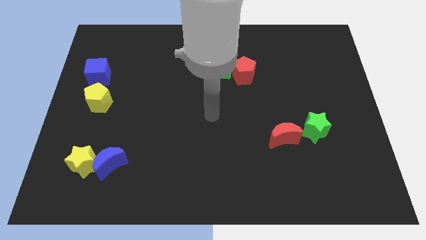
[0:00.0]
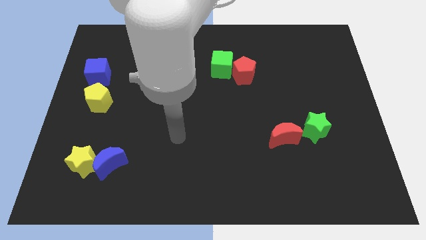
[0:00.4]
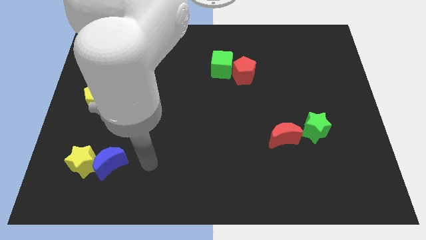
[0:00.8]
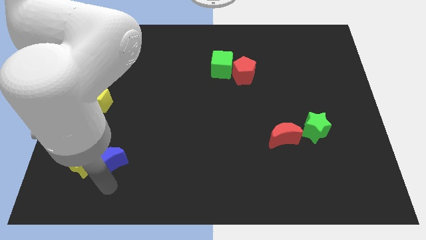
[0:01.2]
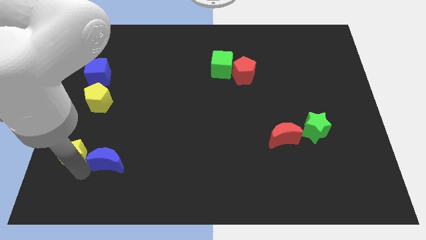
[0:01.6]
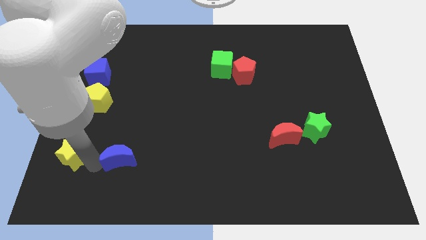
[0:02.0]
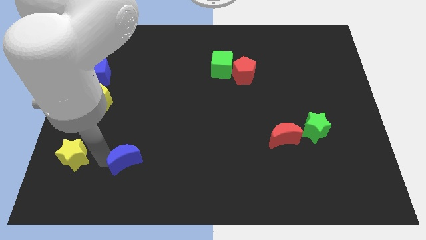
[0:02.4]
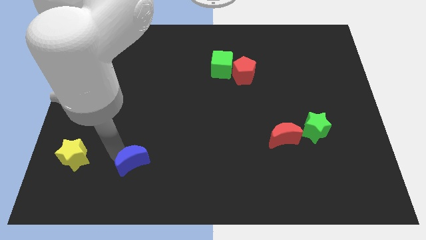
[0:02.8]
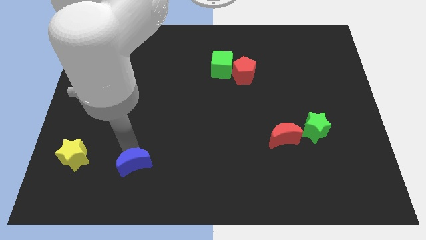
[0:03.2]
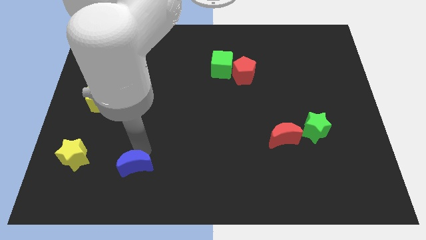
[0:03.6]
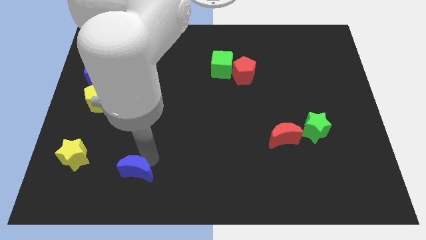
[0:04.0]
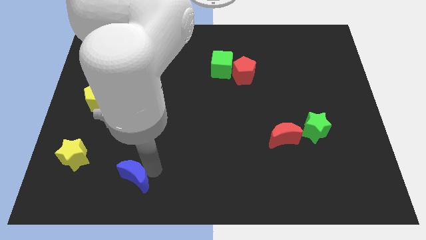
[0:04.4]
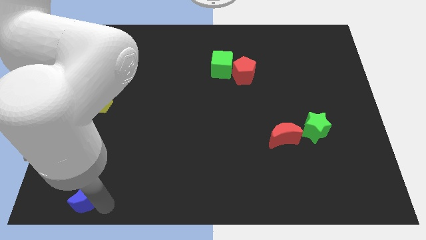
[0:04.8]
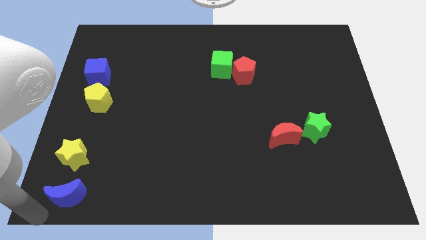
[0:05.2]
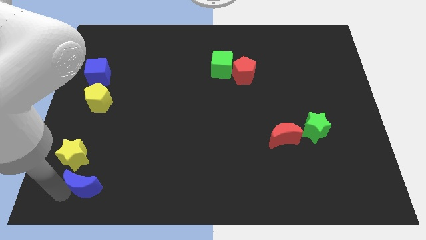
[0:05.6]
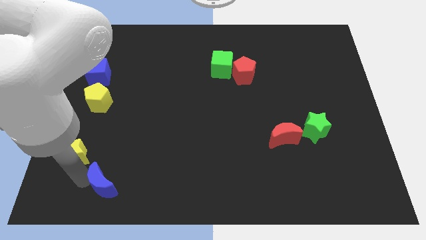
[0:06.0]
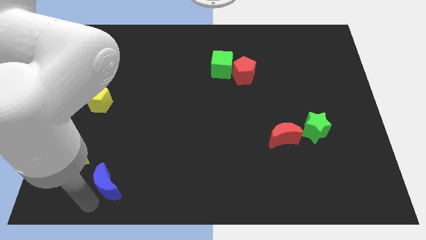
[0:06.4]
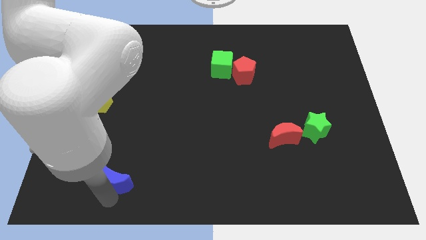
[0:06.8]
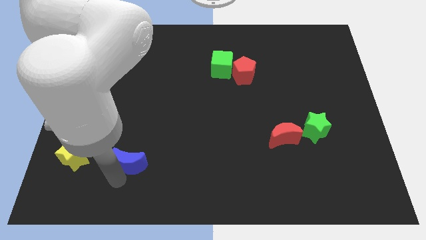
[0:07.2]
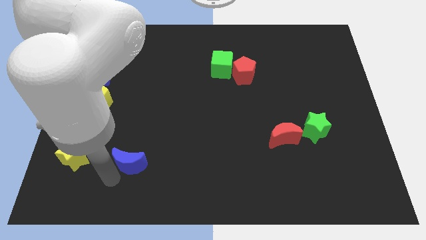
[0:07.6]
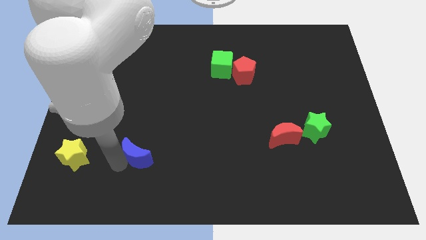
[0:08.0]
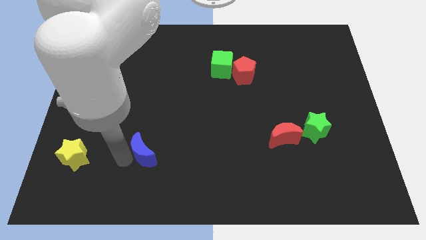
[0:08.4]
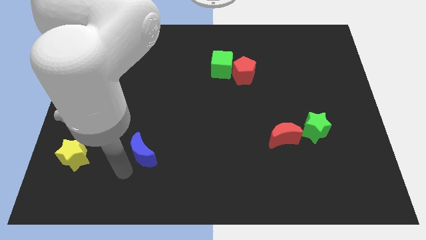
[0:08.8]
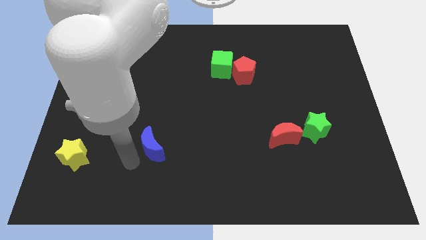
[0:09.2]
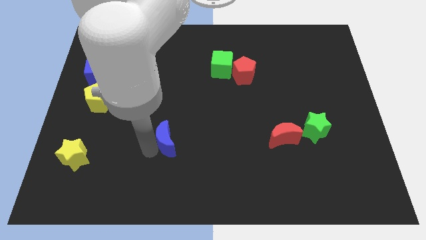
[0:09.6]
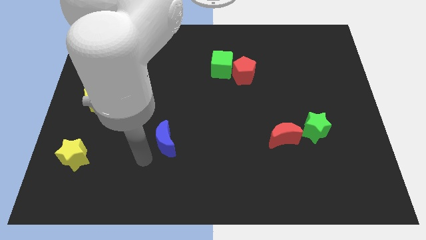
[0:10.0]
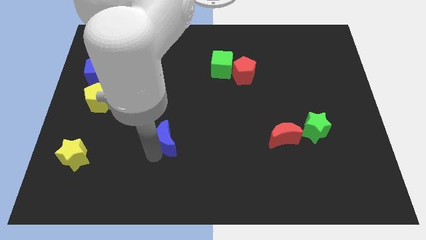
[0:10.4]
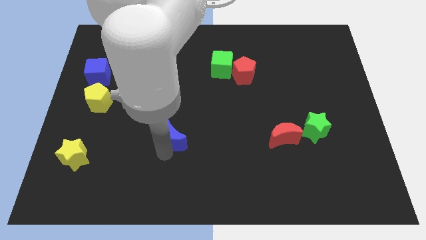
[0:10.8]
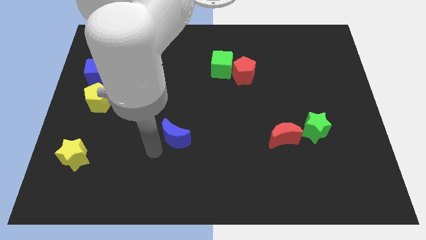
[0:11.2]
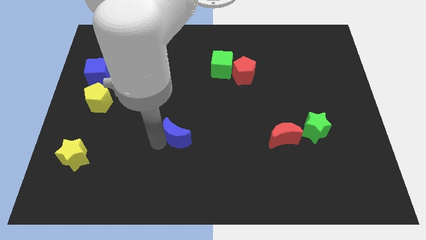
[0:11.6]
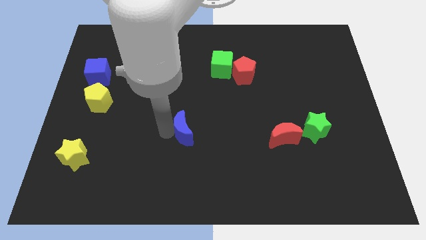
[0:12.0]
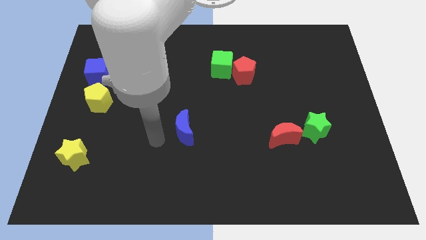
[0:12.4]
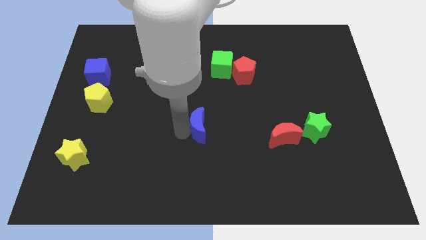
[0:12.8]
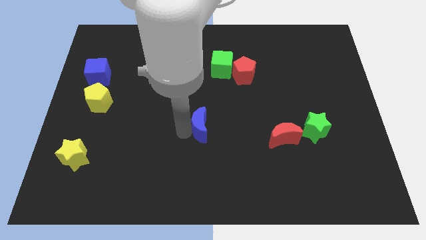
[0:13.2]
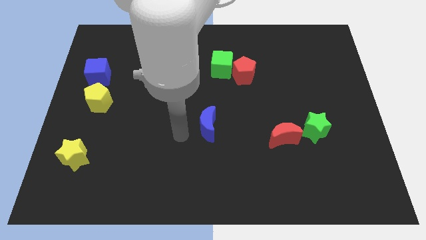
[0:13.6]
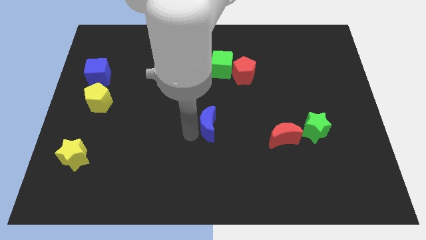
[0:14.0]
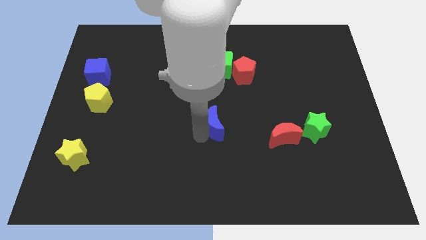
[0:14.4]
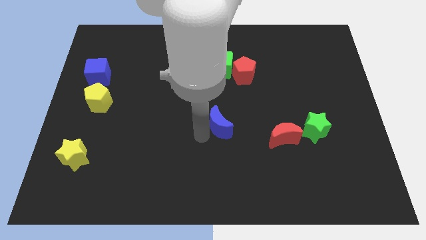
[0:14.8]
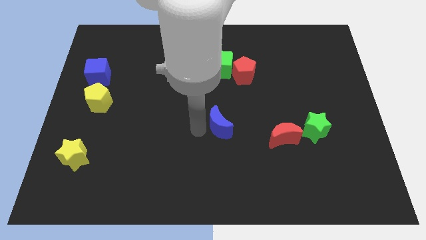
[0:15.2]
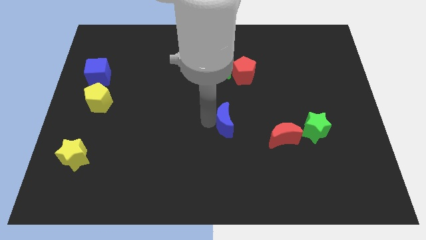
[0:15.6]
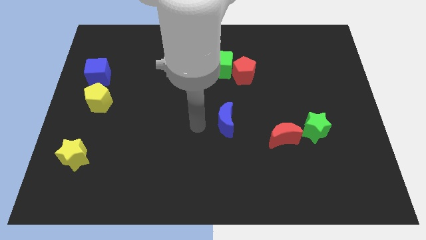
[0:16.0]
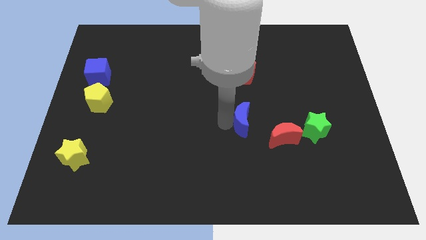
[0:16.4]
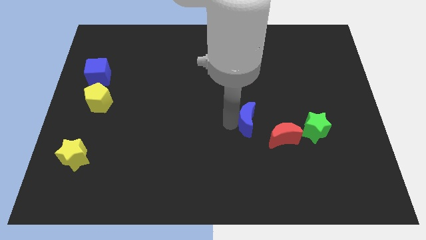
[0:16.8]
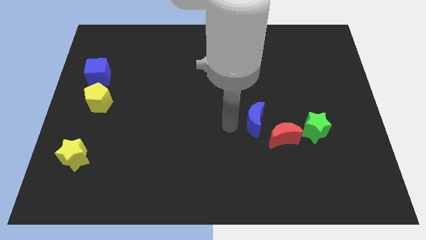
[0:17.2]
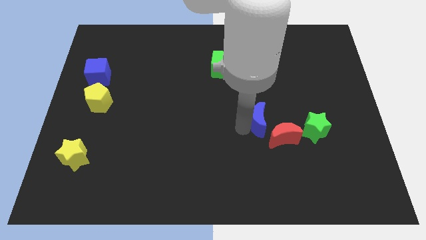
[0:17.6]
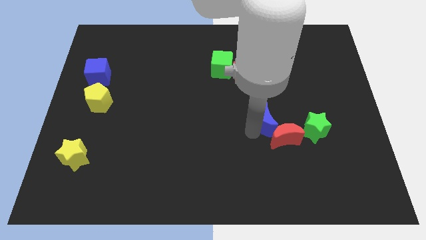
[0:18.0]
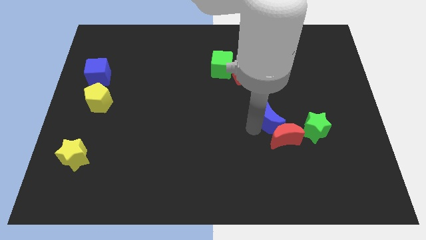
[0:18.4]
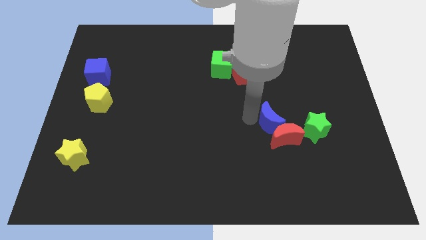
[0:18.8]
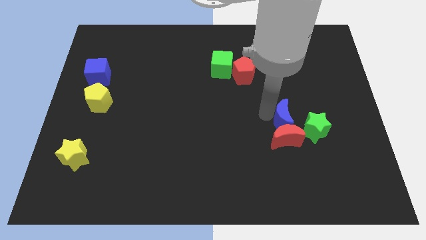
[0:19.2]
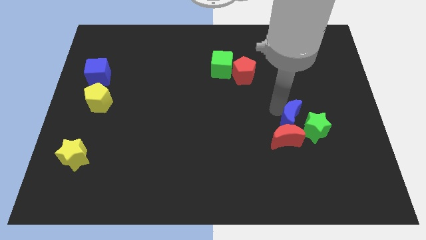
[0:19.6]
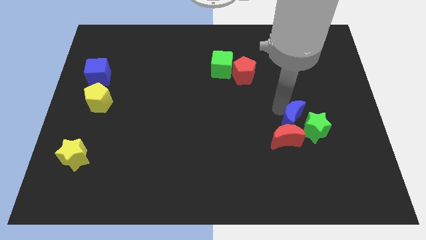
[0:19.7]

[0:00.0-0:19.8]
move the blue moon to the green star

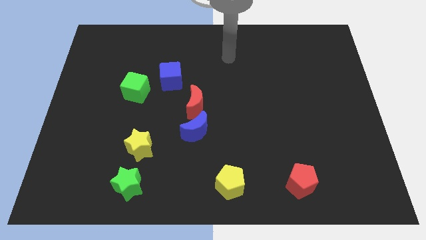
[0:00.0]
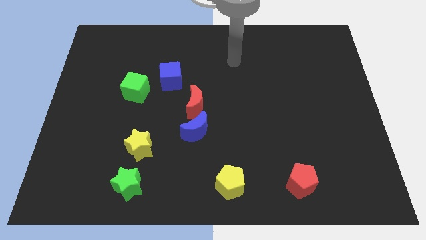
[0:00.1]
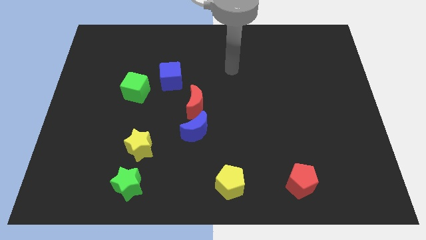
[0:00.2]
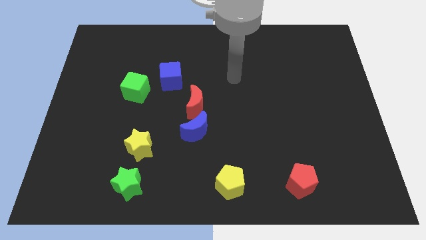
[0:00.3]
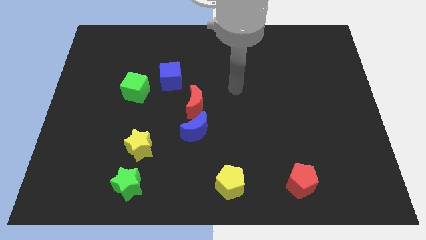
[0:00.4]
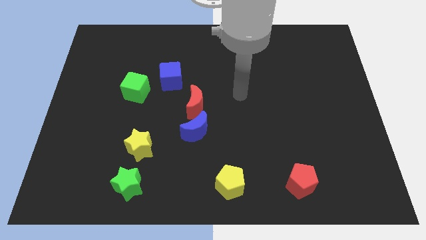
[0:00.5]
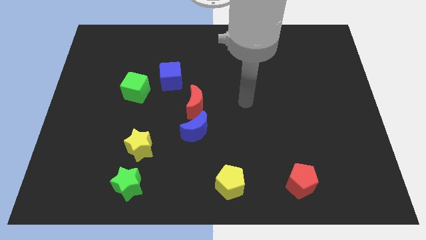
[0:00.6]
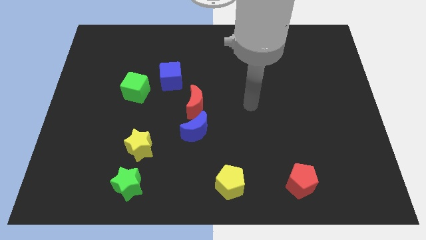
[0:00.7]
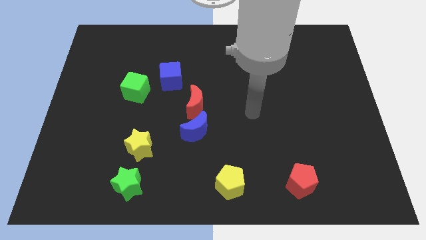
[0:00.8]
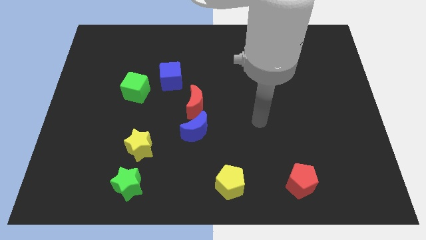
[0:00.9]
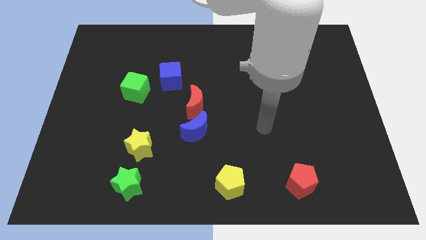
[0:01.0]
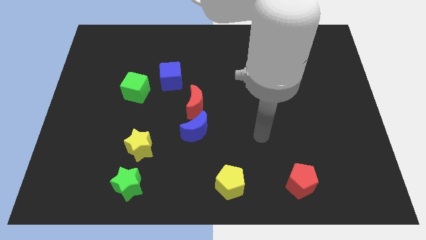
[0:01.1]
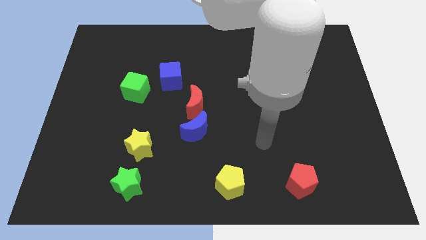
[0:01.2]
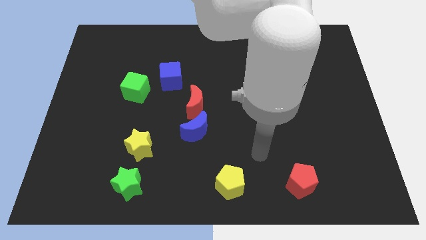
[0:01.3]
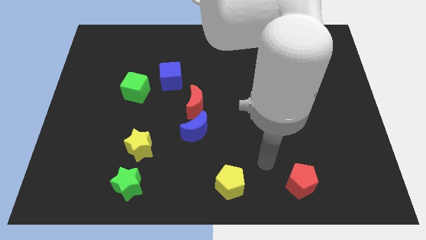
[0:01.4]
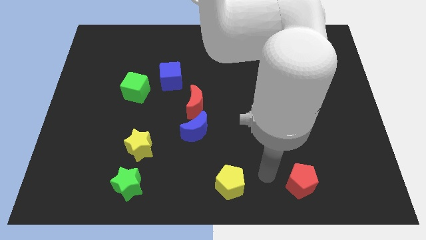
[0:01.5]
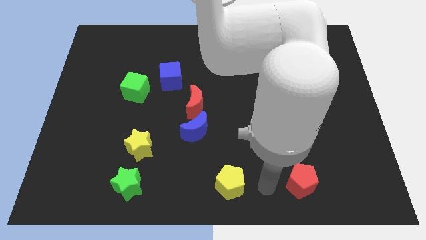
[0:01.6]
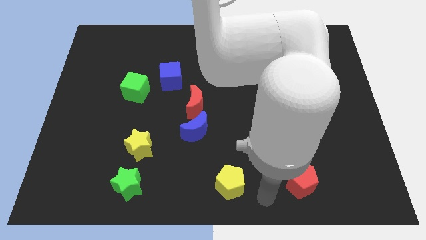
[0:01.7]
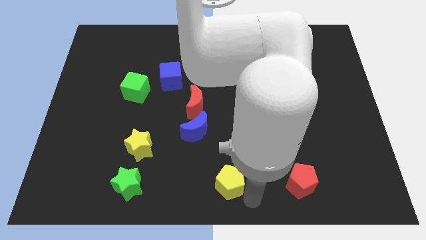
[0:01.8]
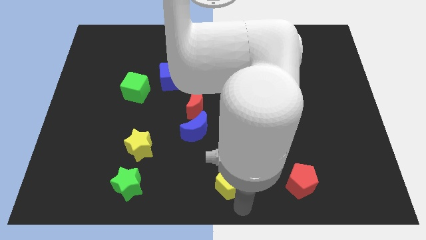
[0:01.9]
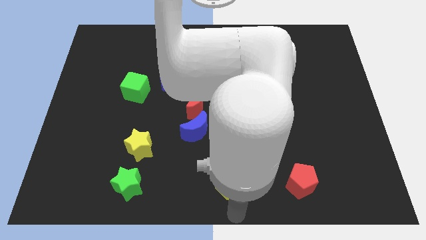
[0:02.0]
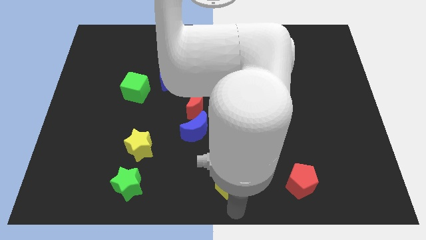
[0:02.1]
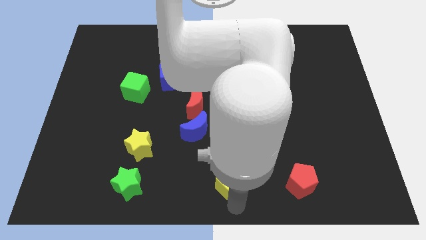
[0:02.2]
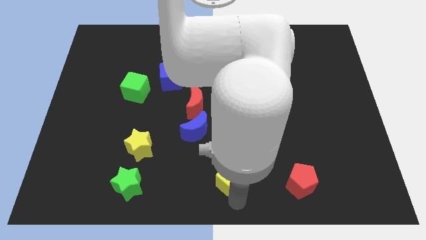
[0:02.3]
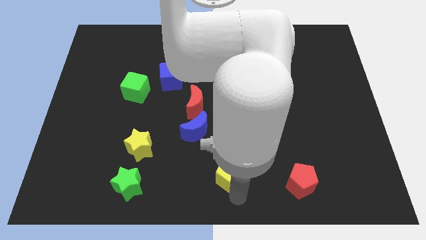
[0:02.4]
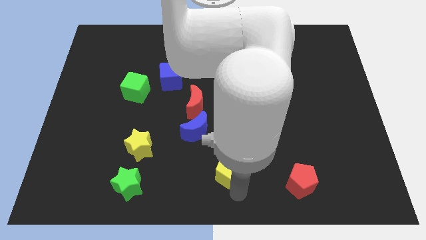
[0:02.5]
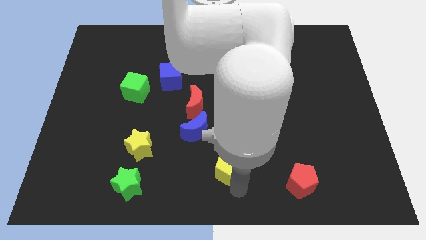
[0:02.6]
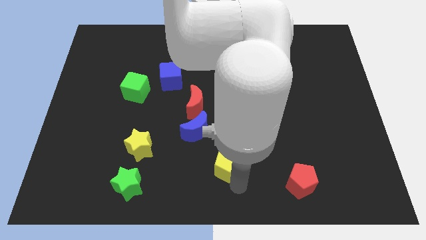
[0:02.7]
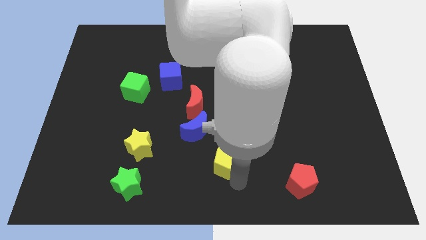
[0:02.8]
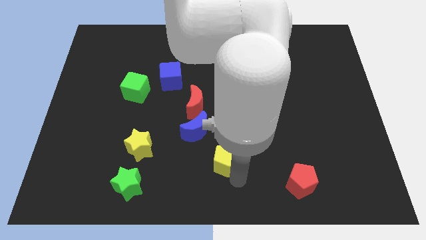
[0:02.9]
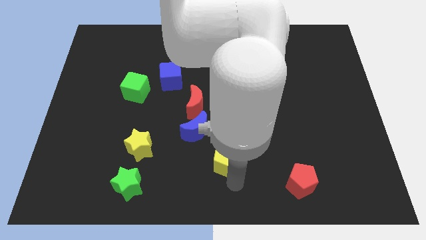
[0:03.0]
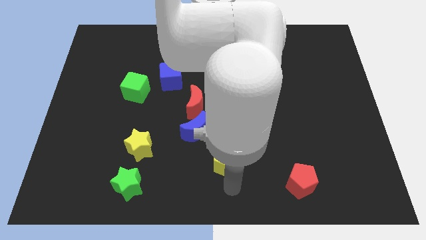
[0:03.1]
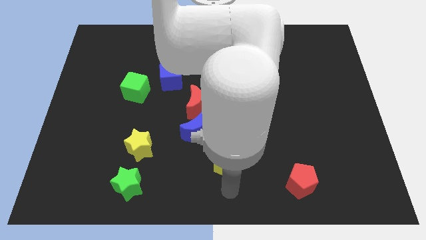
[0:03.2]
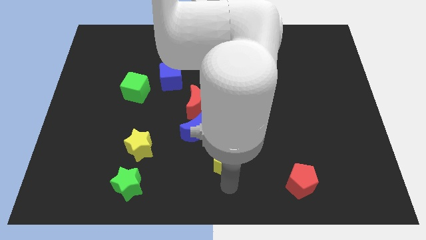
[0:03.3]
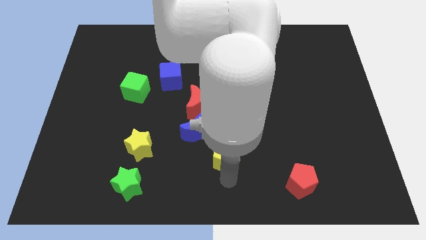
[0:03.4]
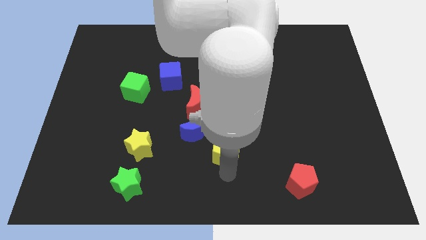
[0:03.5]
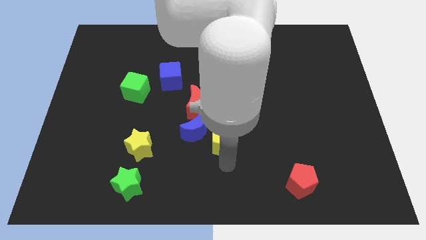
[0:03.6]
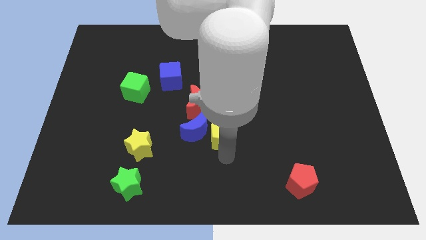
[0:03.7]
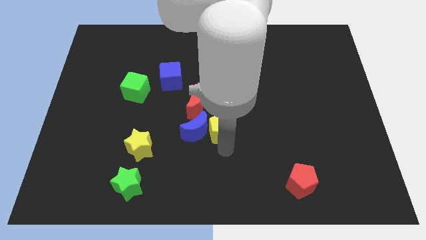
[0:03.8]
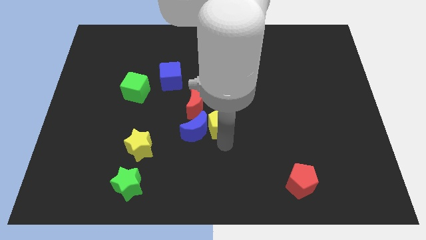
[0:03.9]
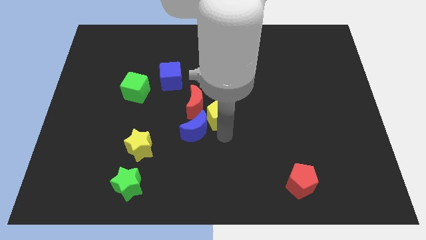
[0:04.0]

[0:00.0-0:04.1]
slide the yellow pentagon to the red moon
